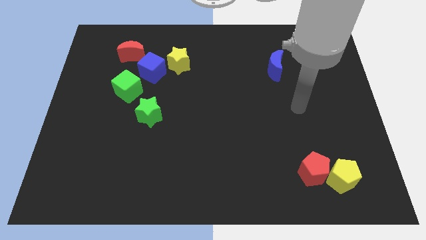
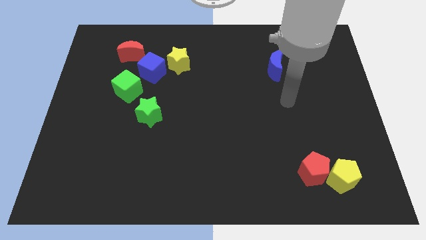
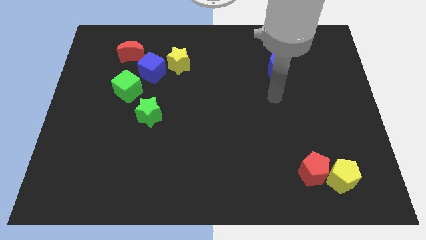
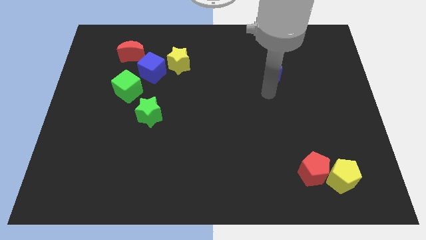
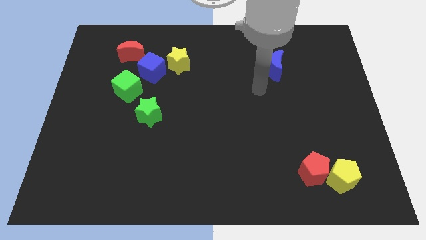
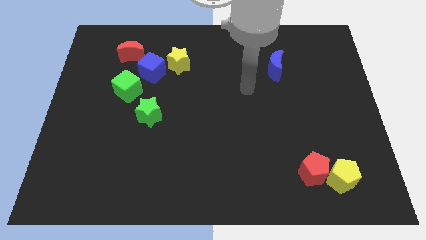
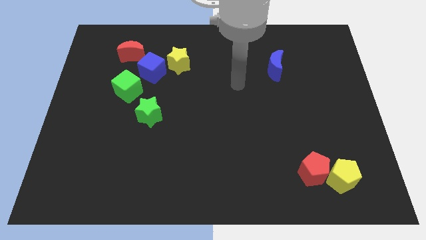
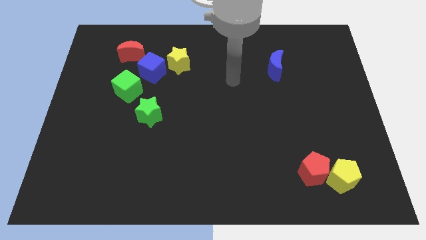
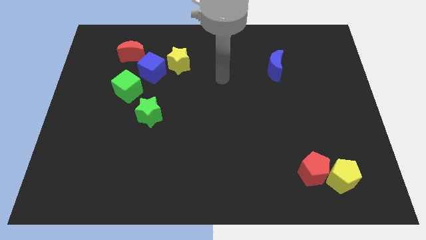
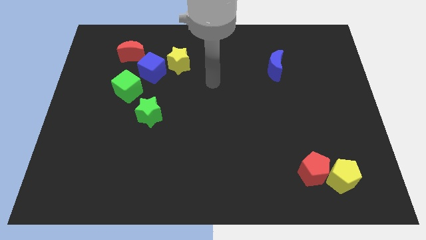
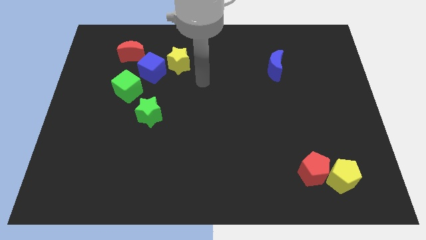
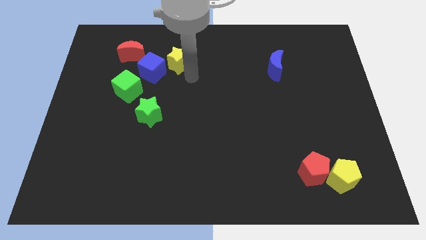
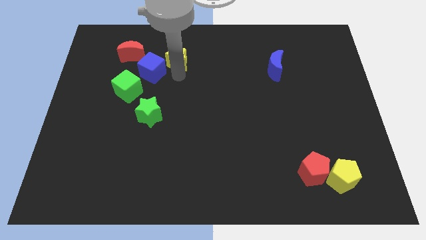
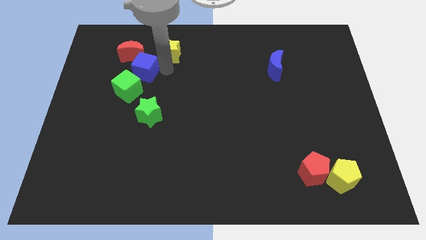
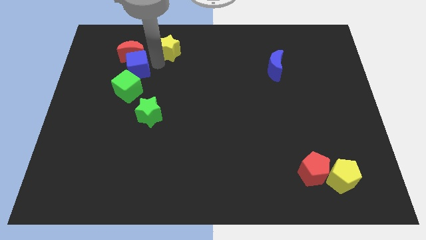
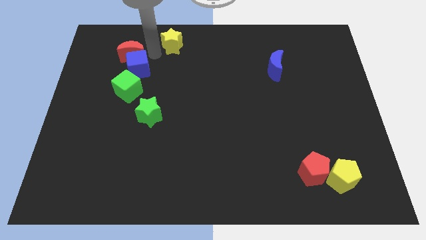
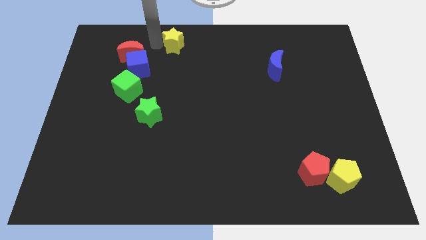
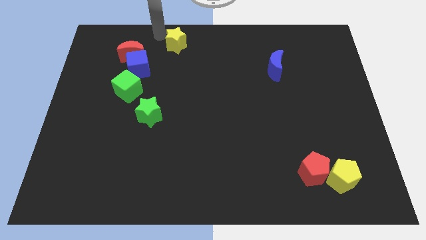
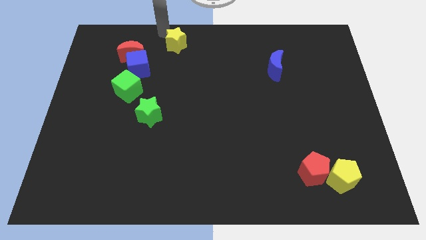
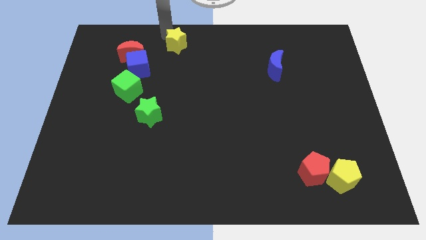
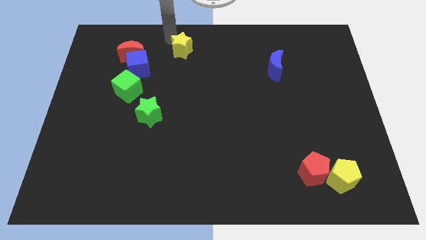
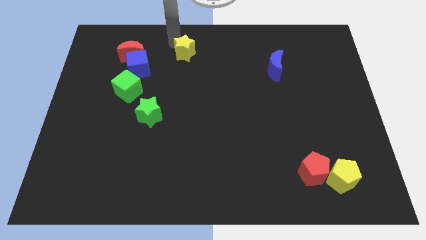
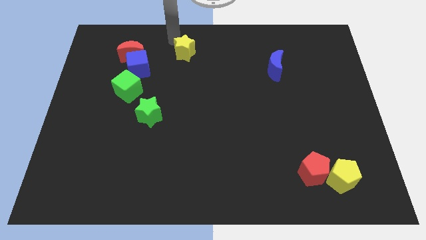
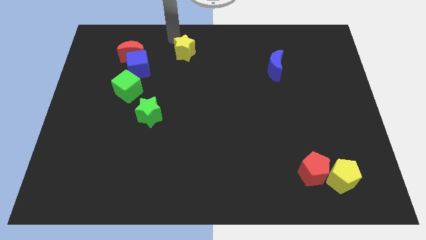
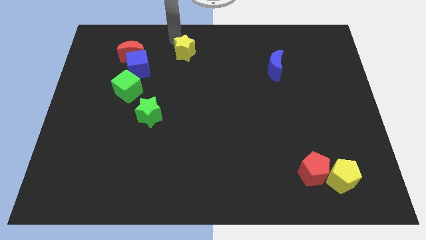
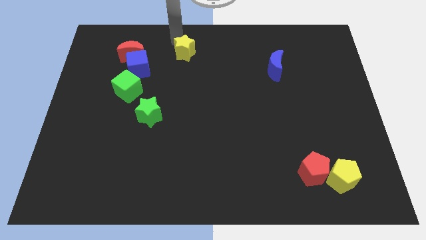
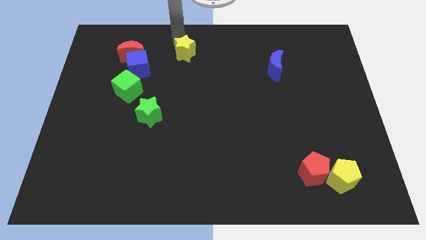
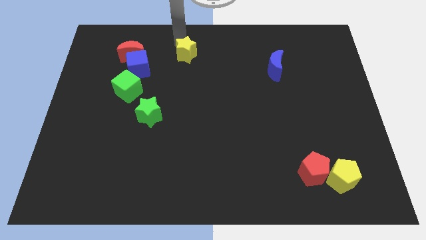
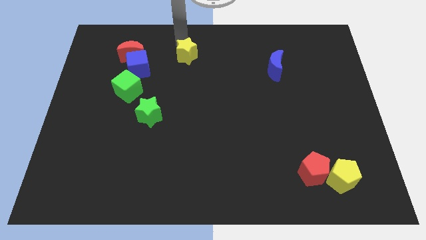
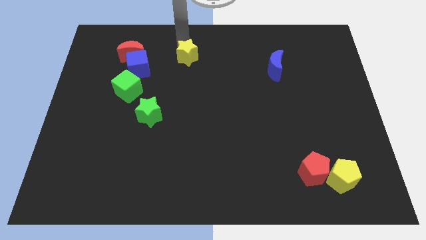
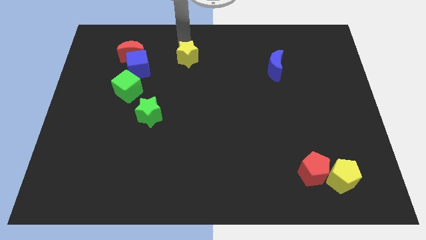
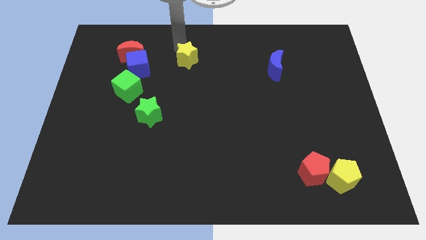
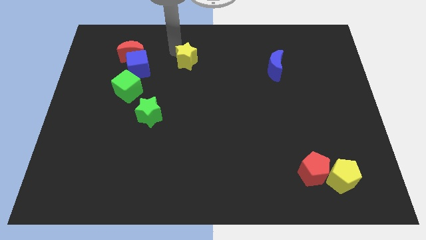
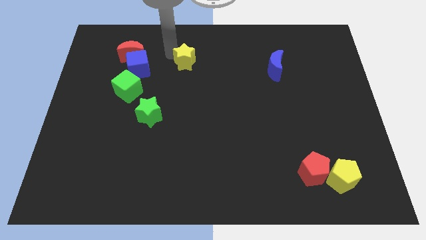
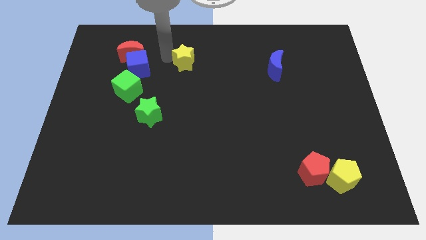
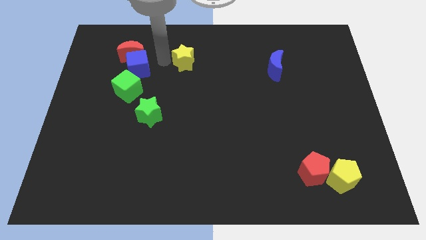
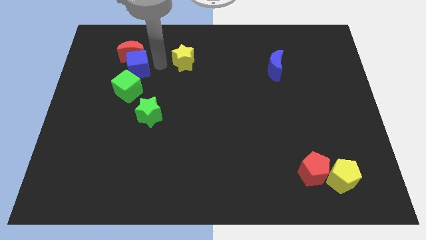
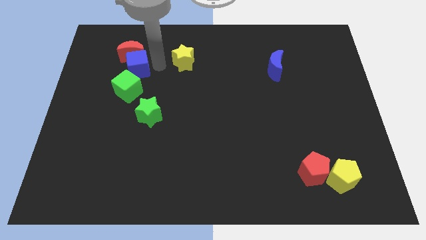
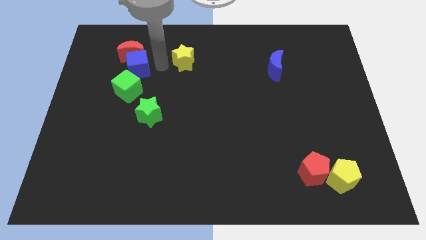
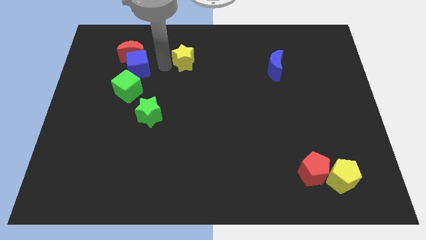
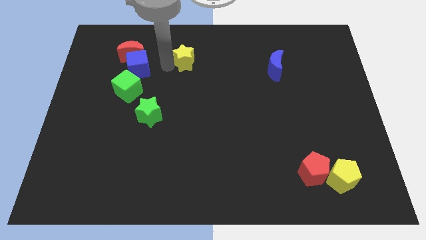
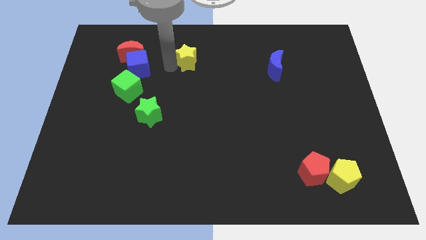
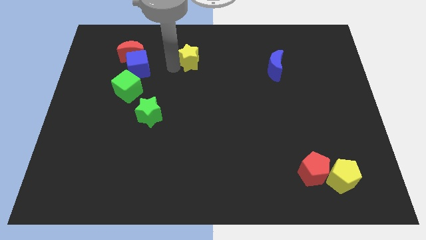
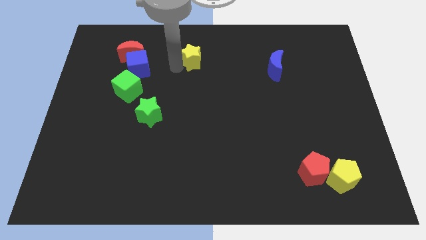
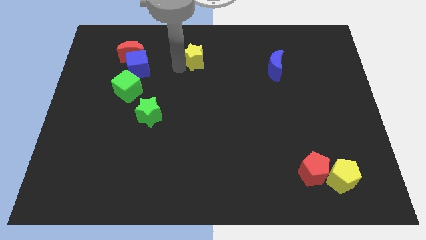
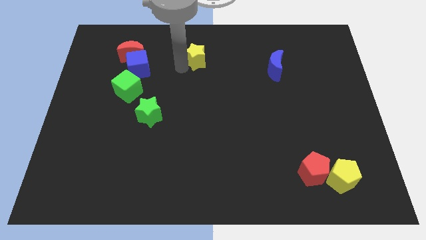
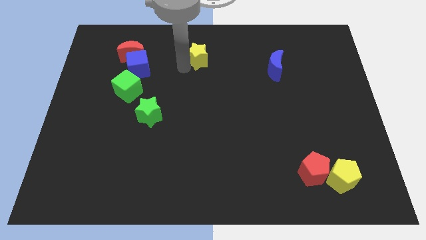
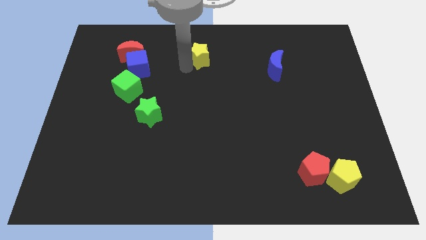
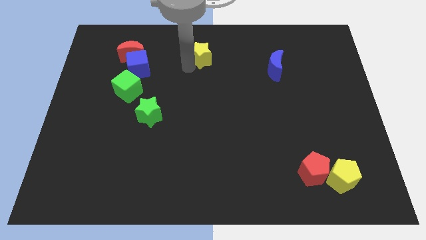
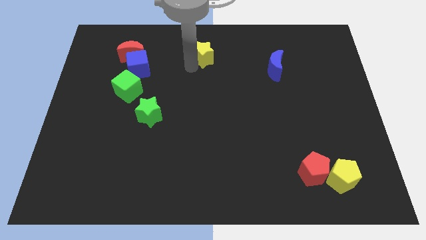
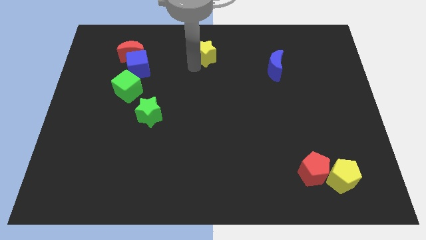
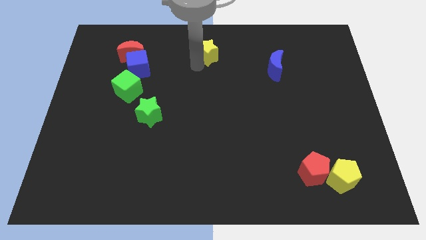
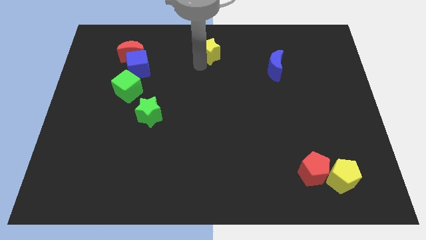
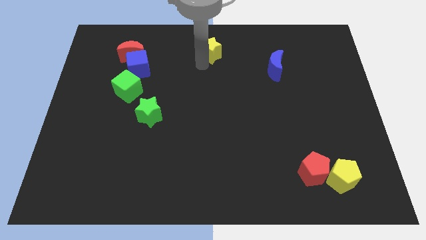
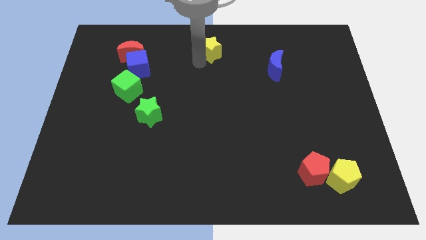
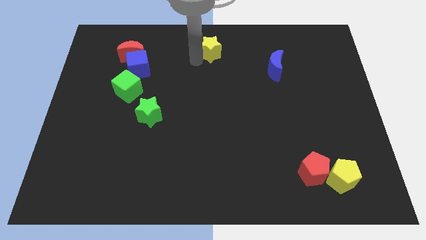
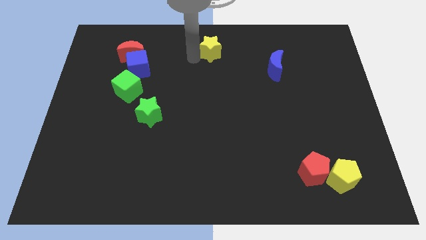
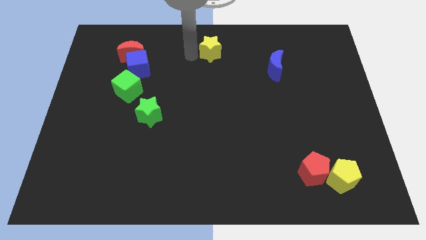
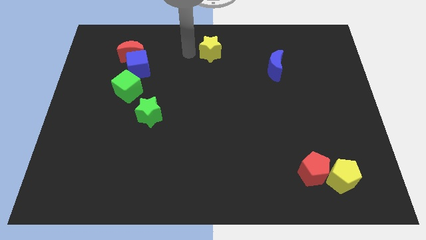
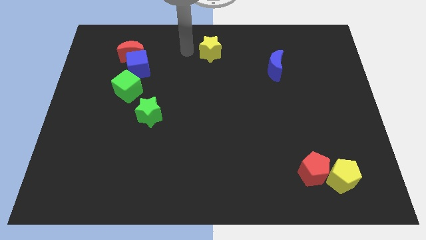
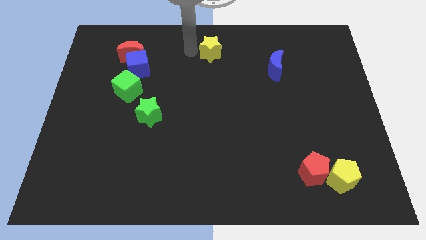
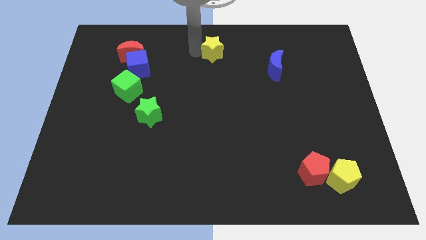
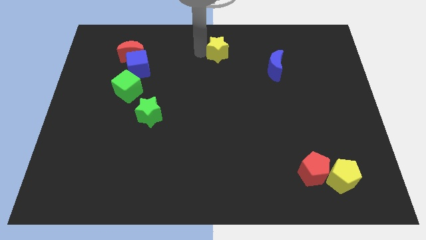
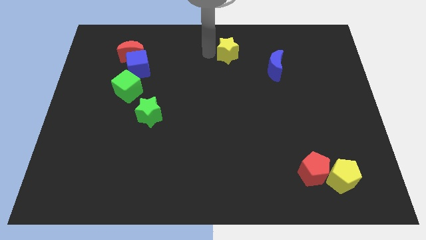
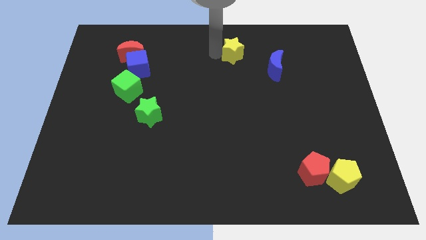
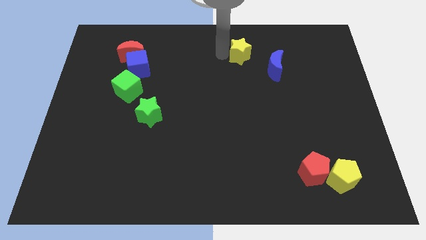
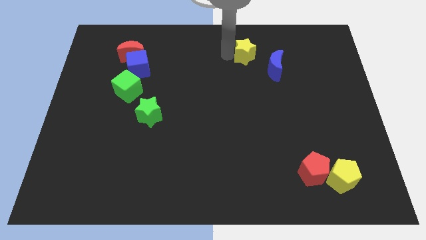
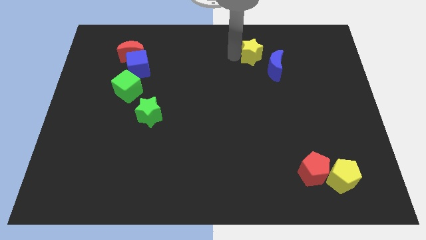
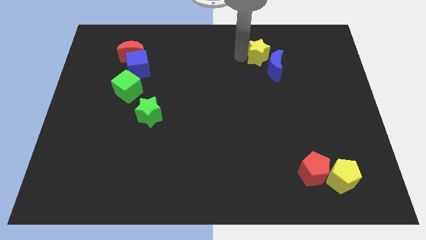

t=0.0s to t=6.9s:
push the yellow star to the right

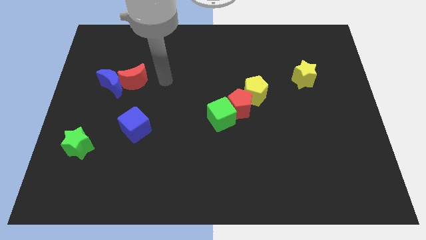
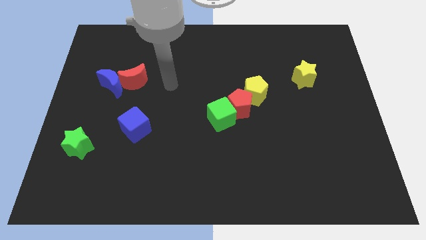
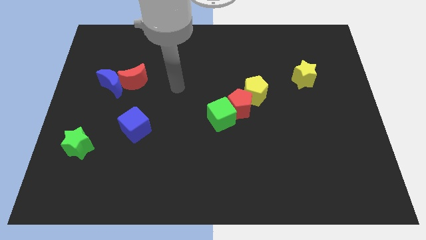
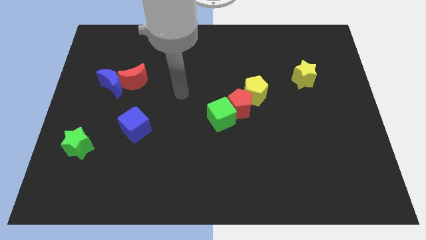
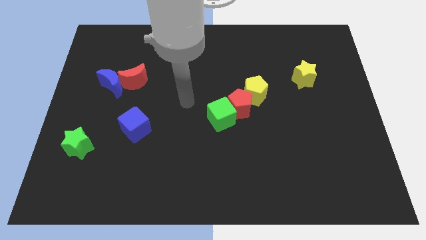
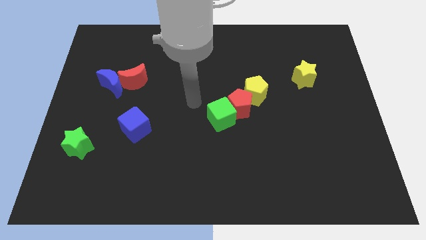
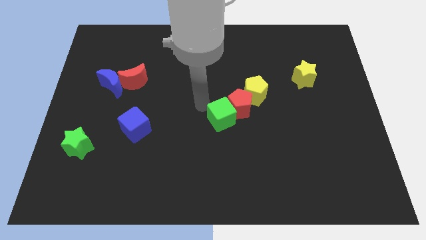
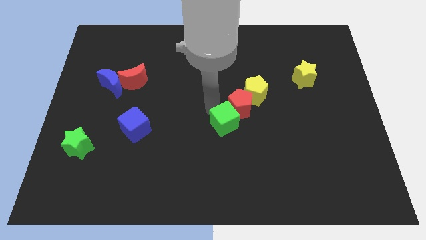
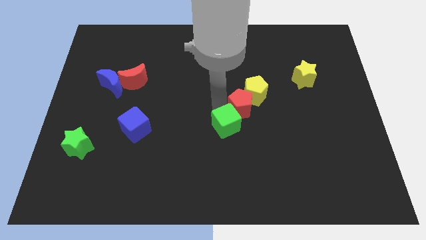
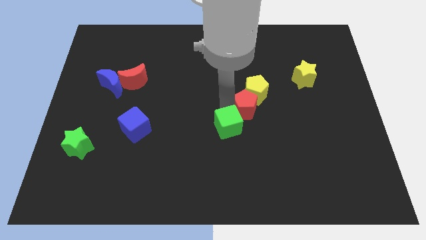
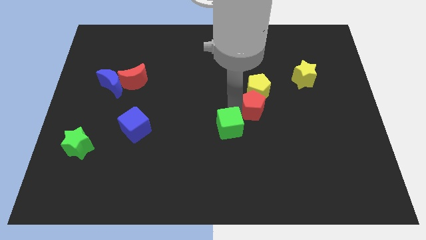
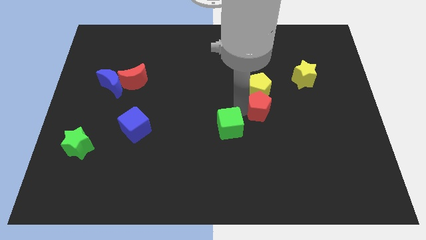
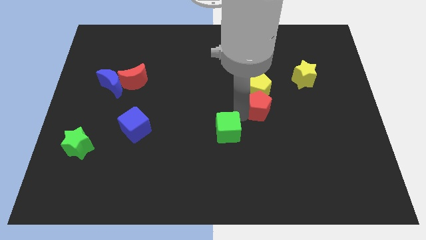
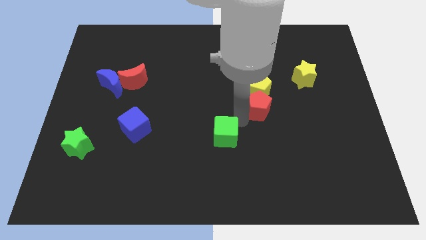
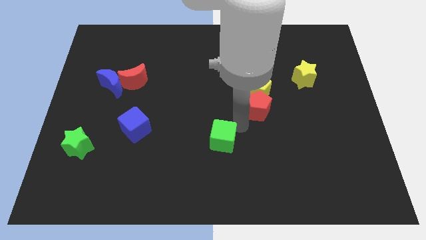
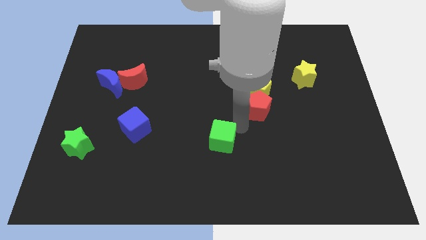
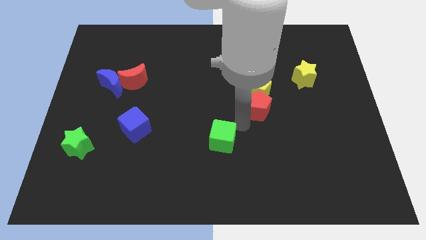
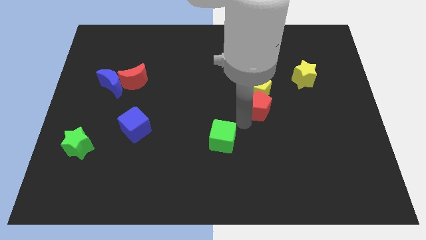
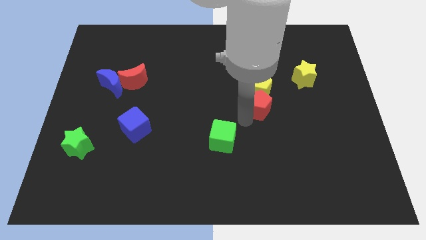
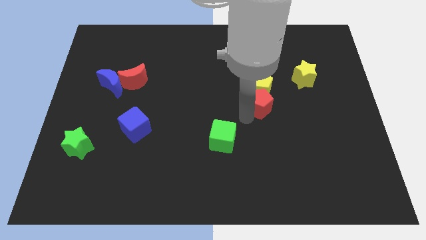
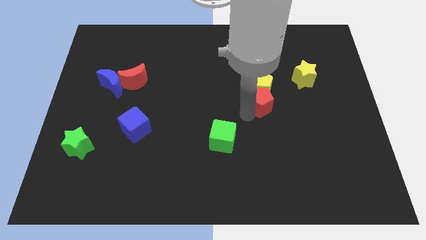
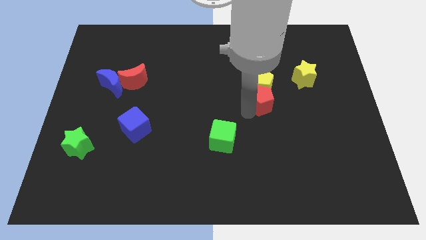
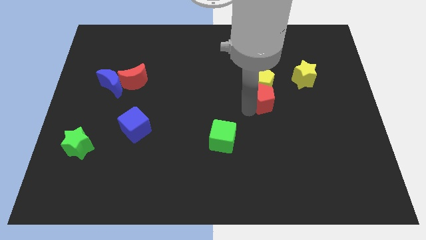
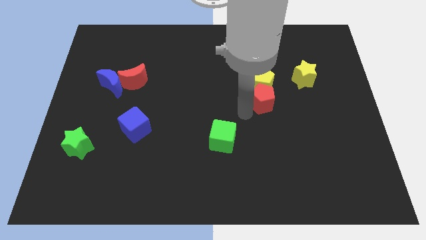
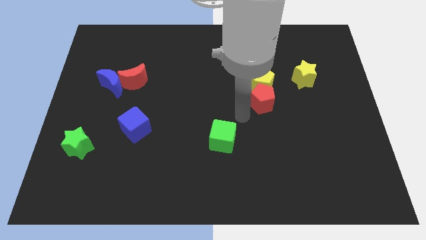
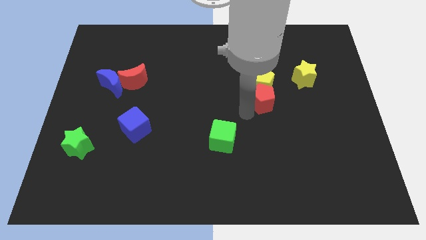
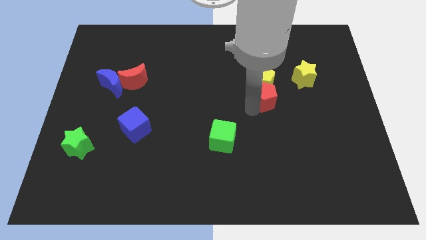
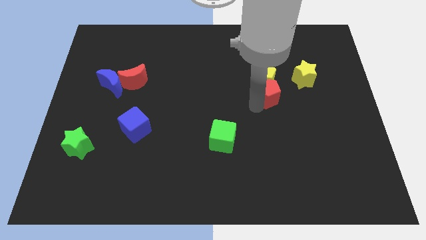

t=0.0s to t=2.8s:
slightly slide the red pentagon diagonally up and right
